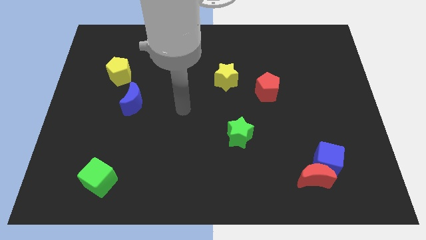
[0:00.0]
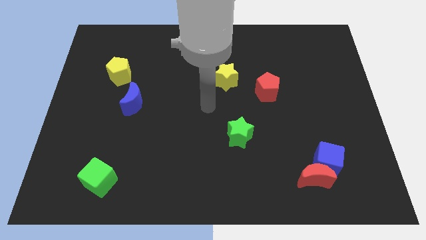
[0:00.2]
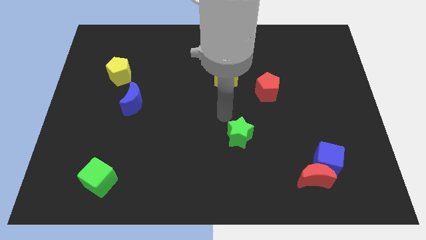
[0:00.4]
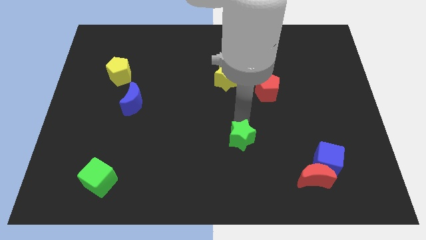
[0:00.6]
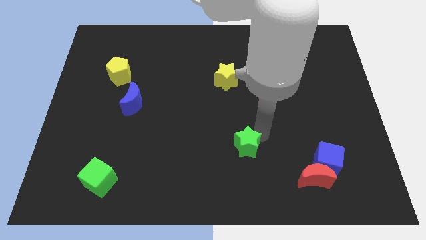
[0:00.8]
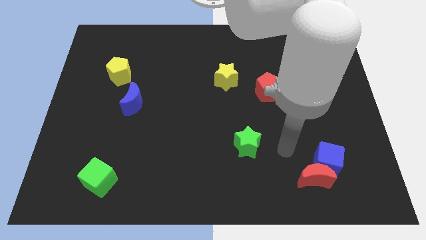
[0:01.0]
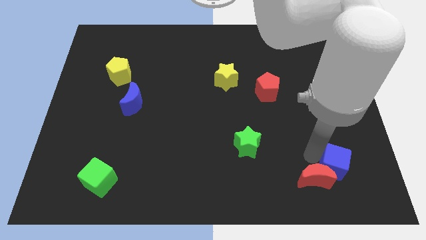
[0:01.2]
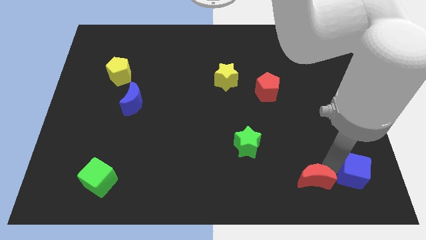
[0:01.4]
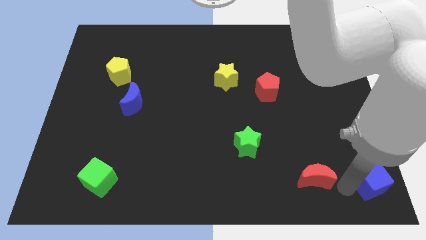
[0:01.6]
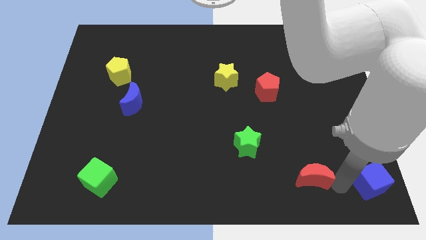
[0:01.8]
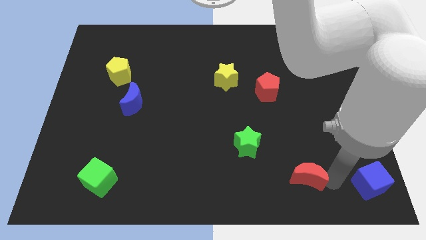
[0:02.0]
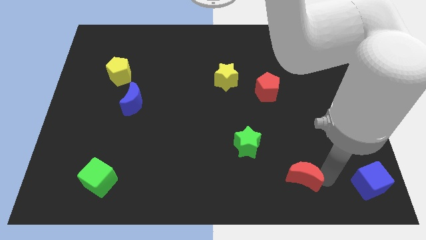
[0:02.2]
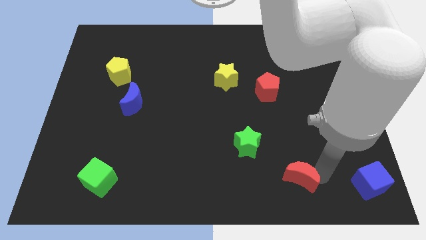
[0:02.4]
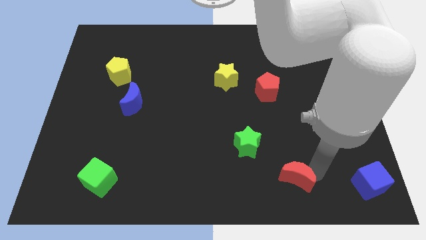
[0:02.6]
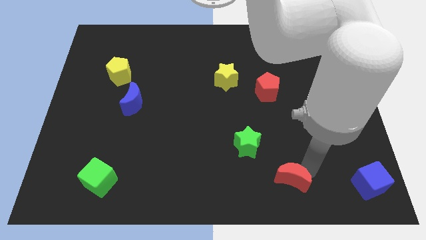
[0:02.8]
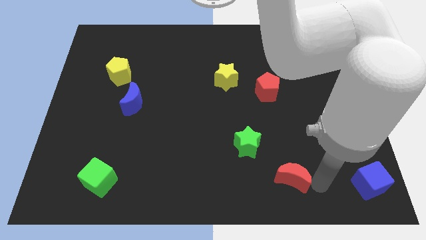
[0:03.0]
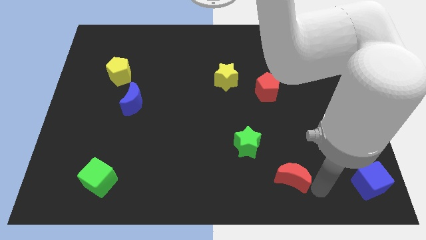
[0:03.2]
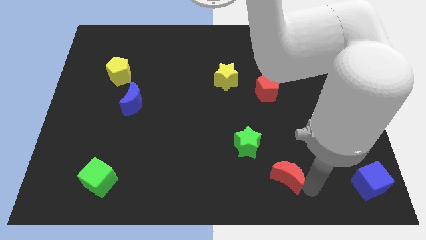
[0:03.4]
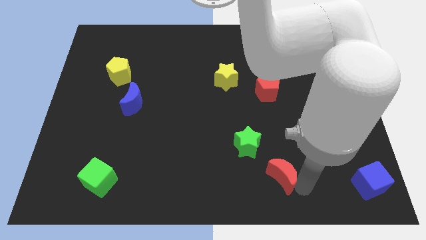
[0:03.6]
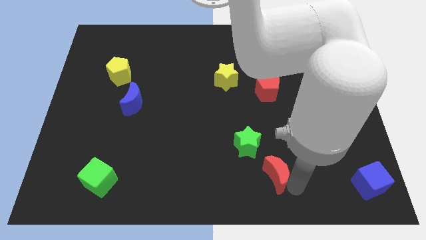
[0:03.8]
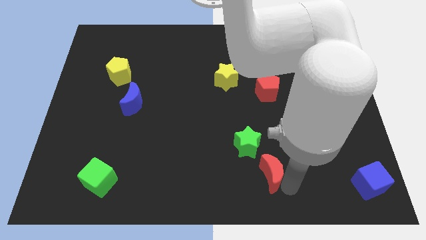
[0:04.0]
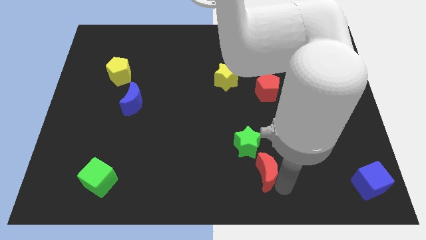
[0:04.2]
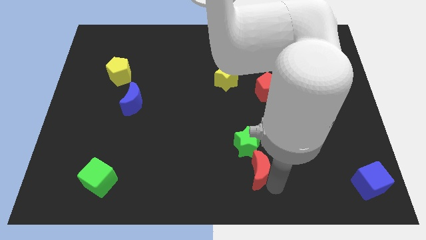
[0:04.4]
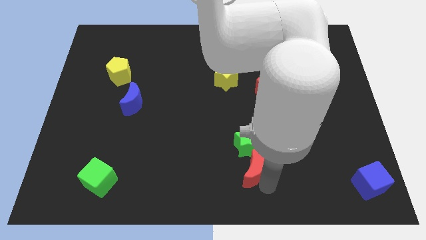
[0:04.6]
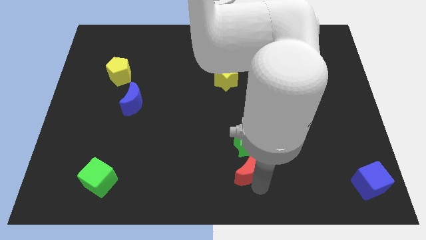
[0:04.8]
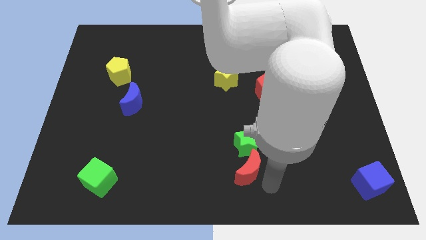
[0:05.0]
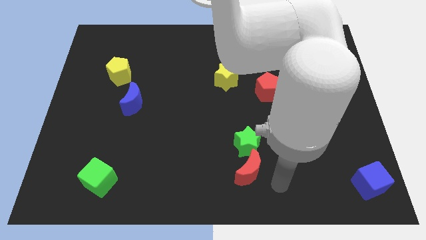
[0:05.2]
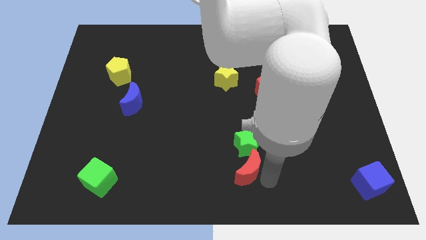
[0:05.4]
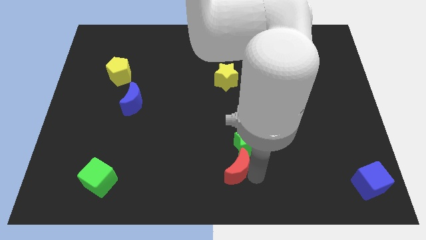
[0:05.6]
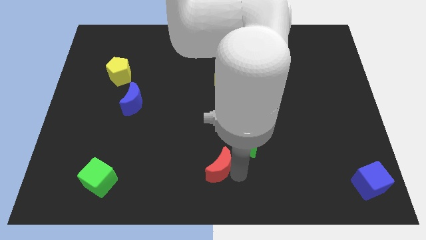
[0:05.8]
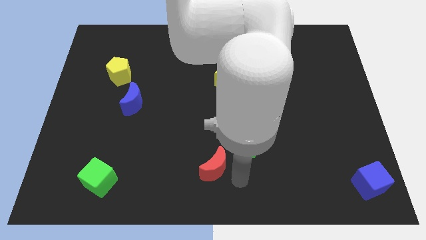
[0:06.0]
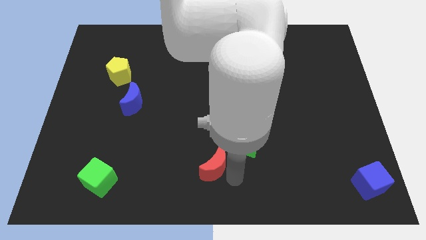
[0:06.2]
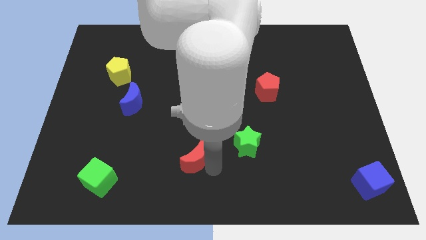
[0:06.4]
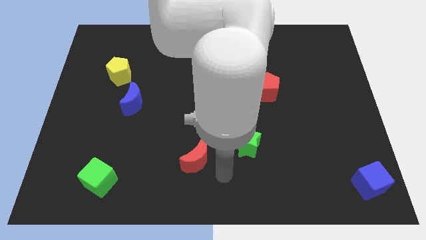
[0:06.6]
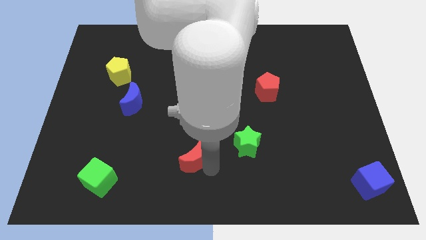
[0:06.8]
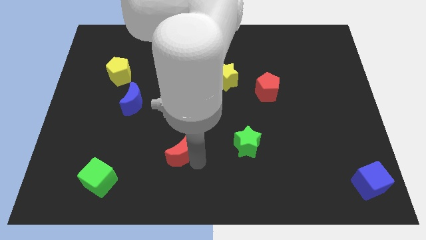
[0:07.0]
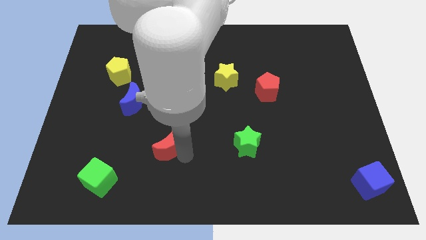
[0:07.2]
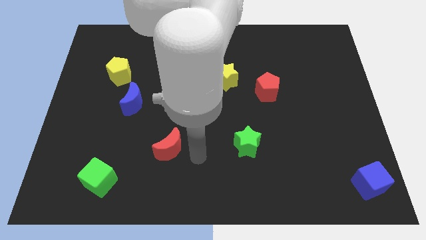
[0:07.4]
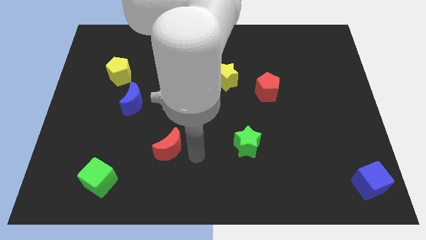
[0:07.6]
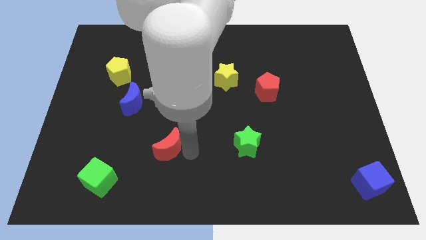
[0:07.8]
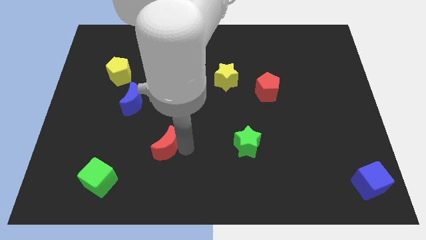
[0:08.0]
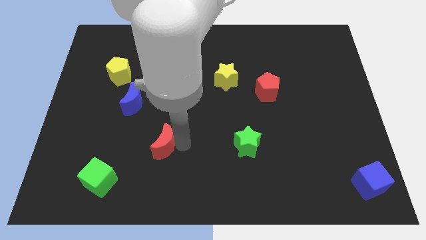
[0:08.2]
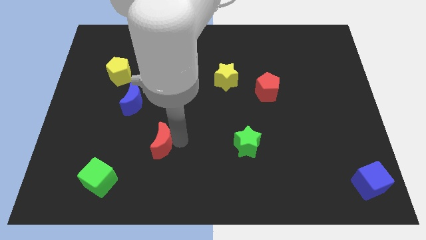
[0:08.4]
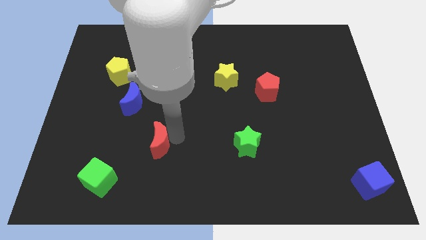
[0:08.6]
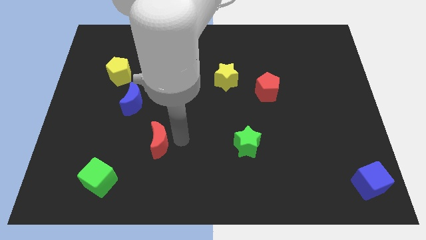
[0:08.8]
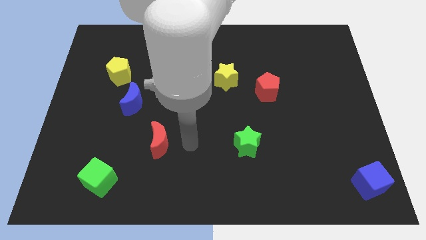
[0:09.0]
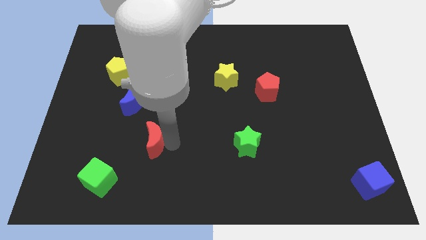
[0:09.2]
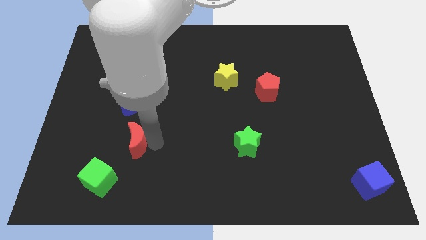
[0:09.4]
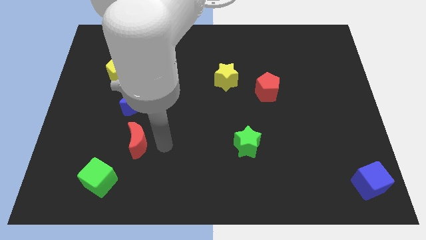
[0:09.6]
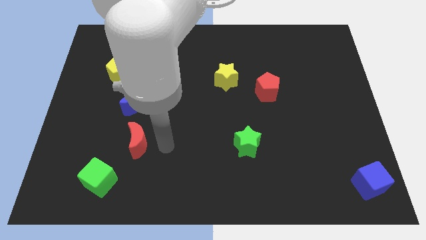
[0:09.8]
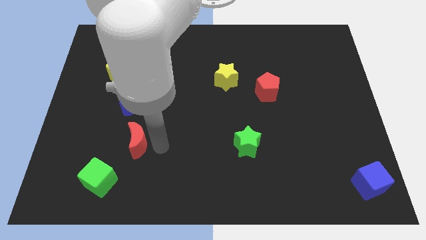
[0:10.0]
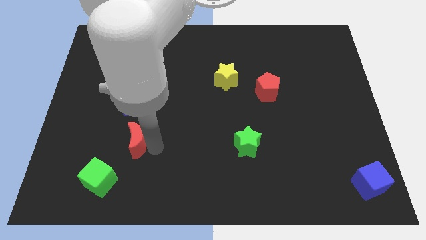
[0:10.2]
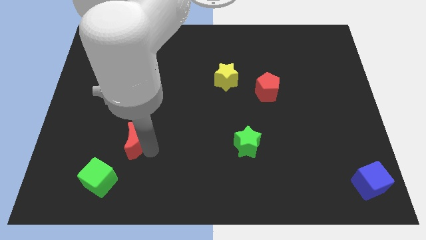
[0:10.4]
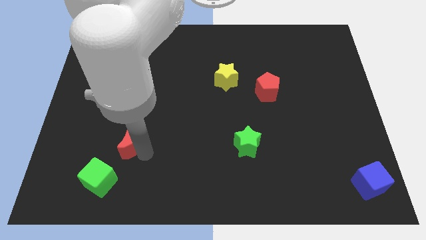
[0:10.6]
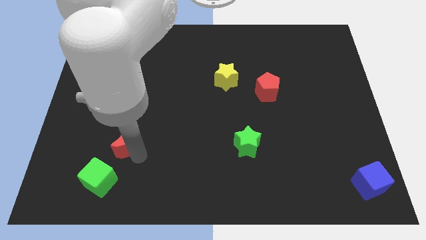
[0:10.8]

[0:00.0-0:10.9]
push the red moon to the top of the green cube

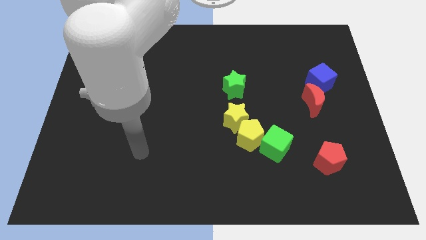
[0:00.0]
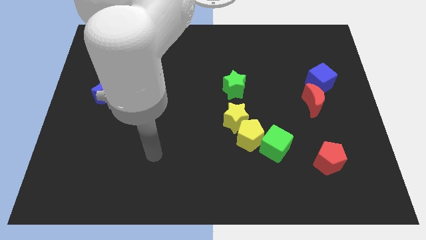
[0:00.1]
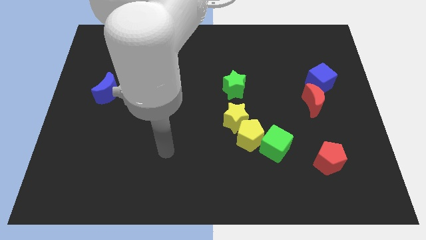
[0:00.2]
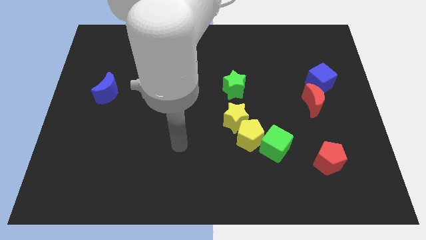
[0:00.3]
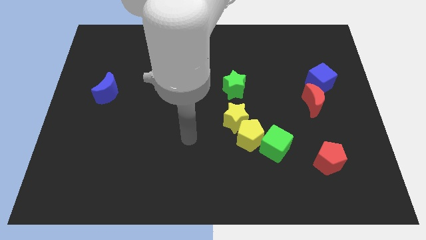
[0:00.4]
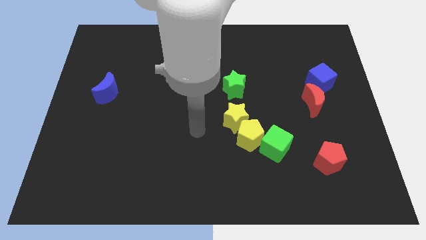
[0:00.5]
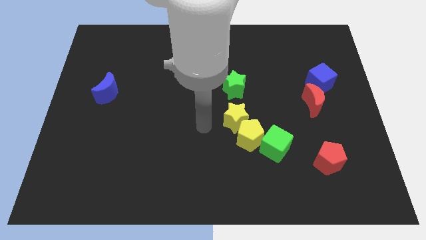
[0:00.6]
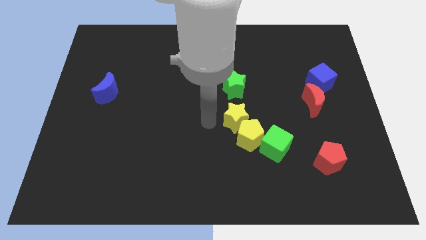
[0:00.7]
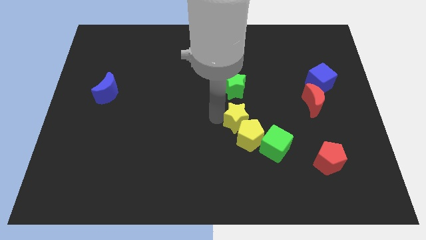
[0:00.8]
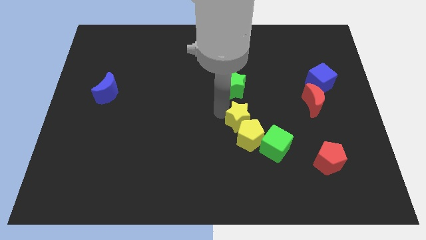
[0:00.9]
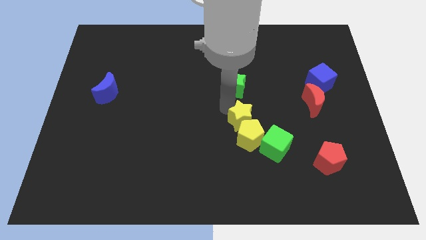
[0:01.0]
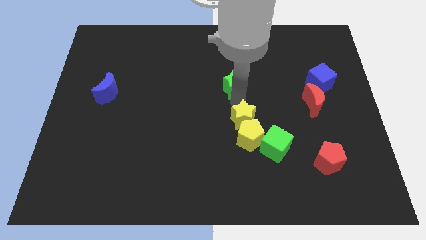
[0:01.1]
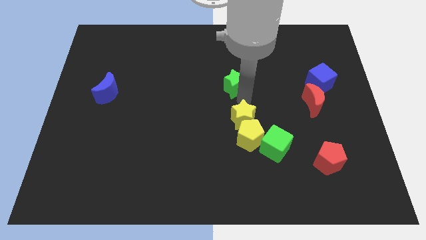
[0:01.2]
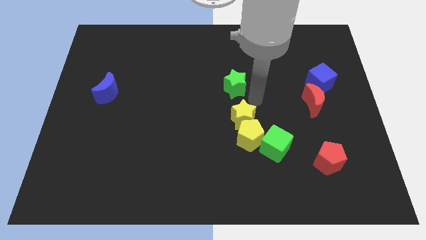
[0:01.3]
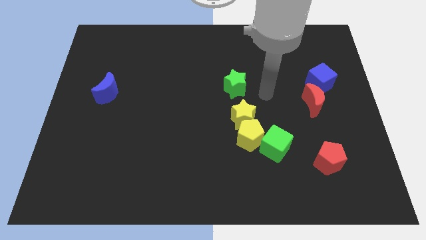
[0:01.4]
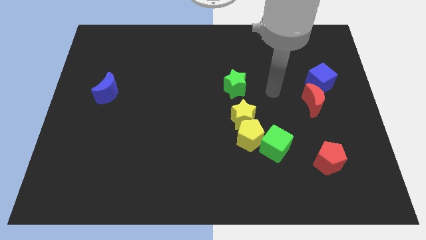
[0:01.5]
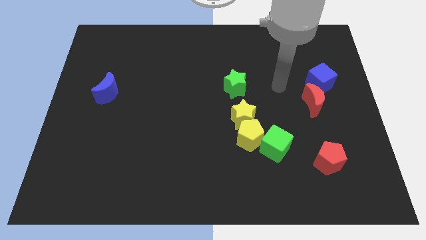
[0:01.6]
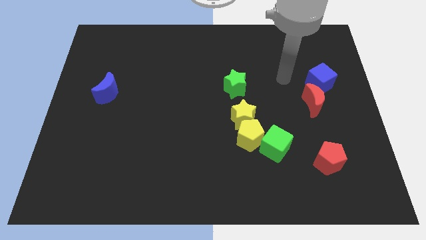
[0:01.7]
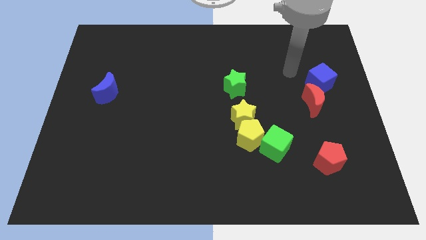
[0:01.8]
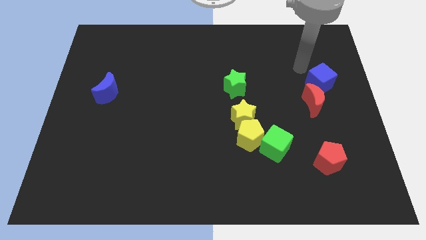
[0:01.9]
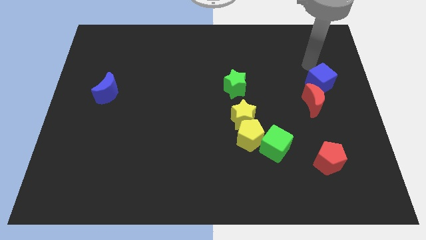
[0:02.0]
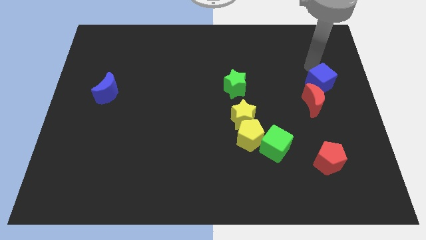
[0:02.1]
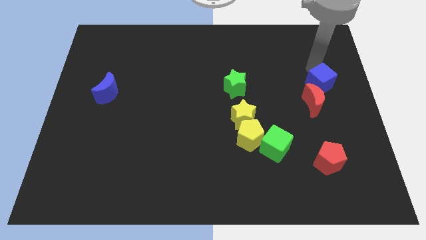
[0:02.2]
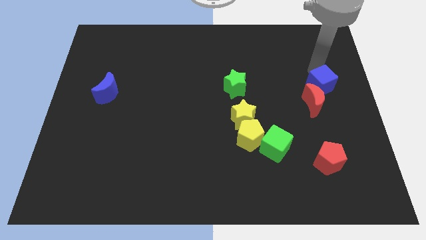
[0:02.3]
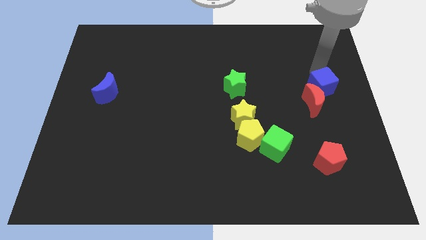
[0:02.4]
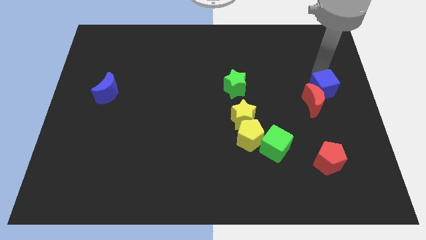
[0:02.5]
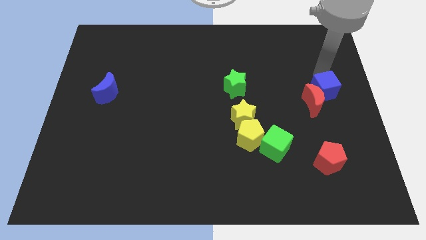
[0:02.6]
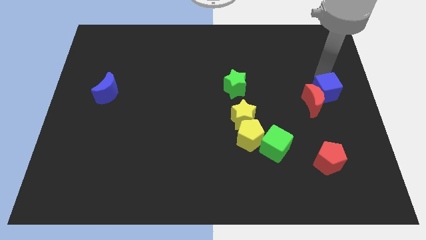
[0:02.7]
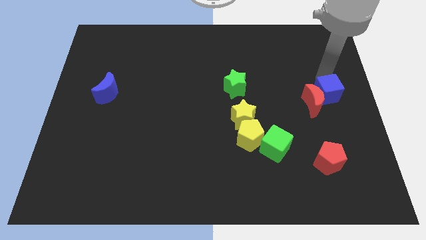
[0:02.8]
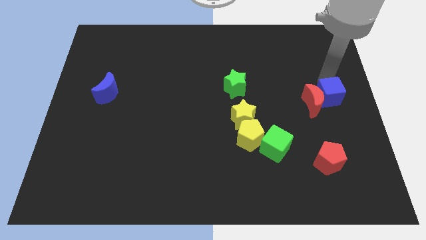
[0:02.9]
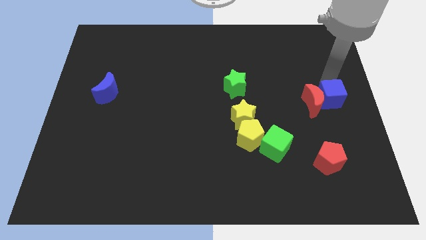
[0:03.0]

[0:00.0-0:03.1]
move the blue cube diagonally down and to the right of the red moon
